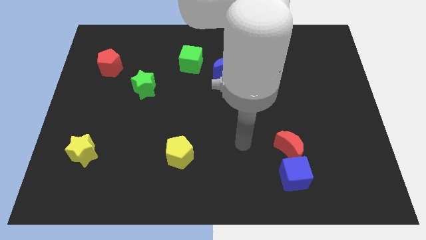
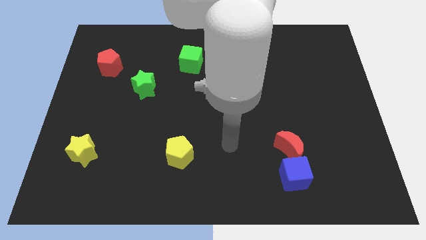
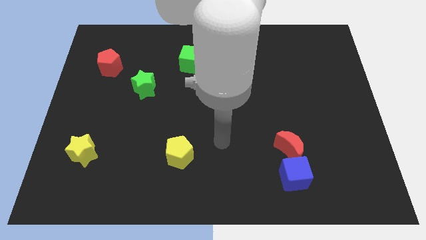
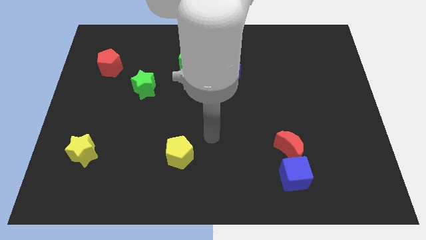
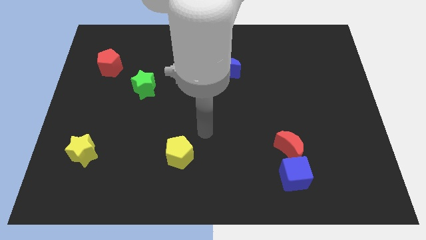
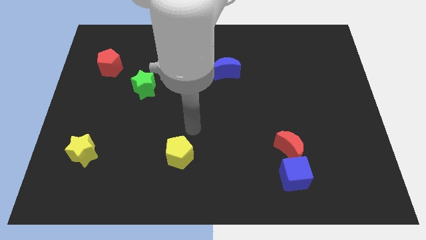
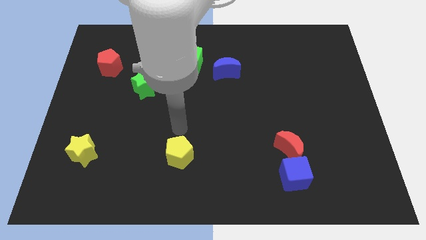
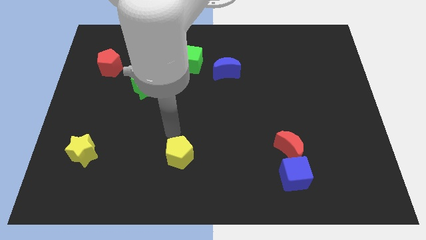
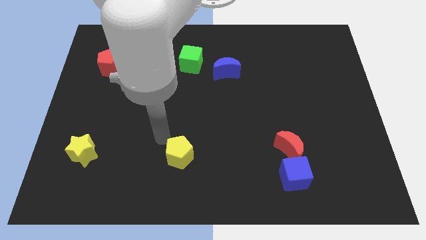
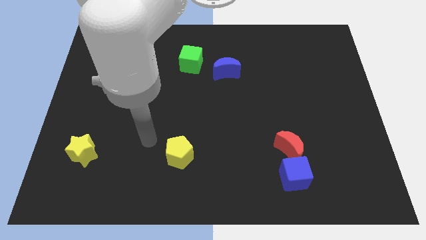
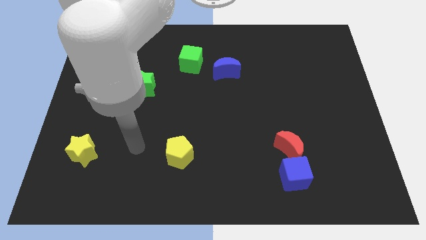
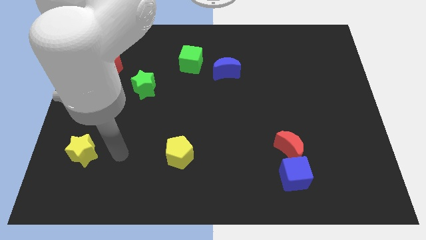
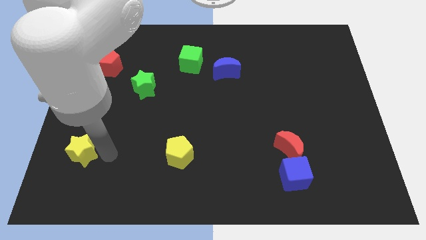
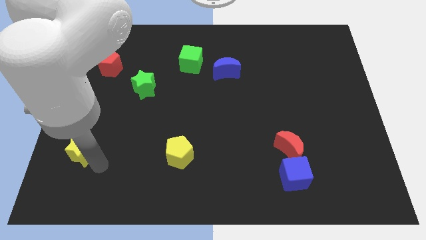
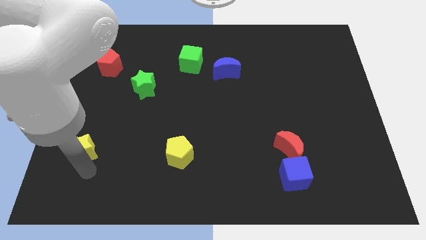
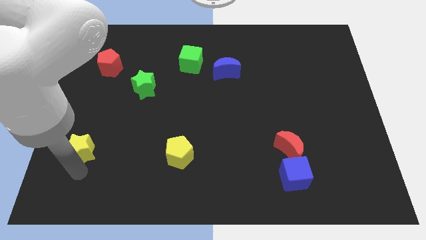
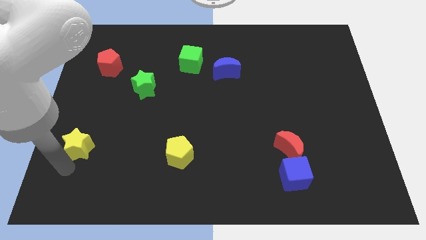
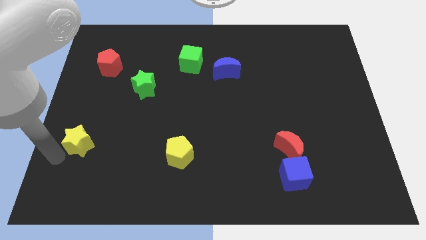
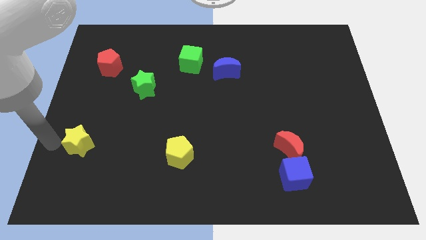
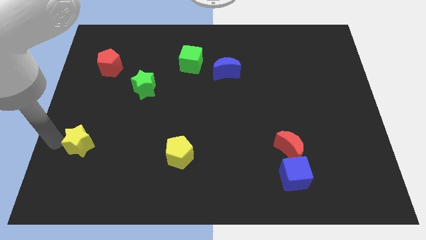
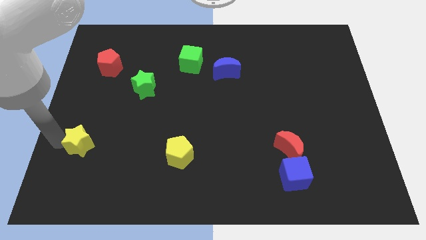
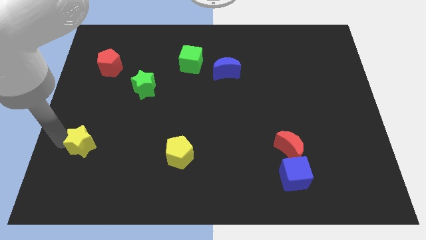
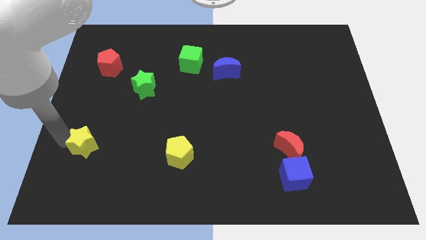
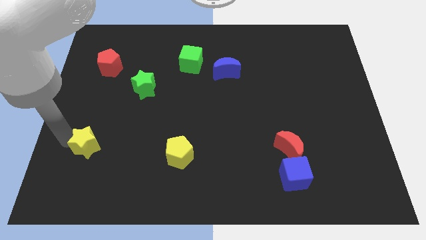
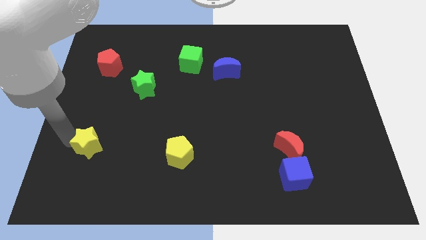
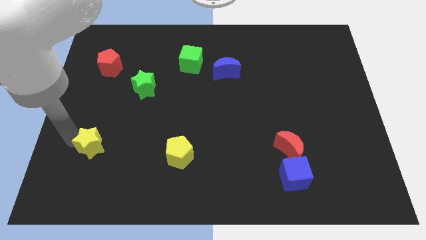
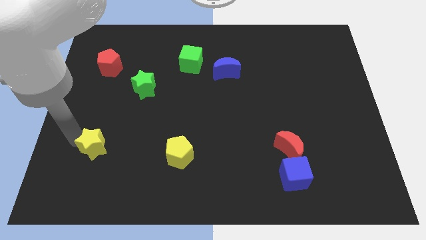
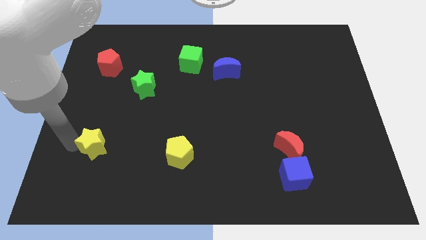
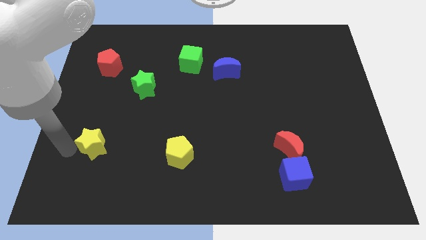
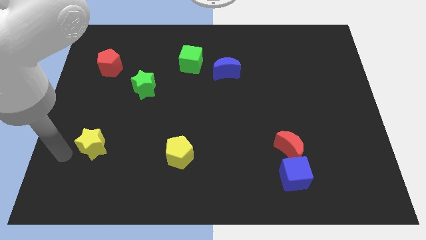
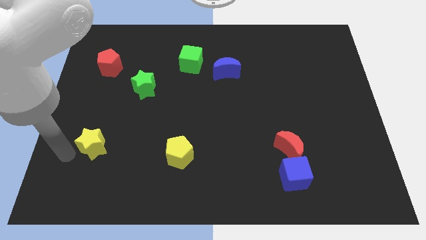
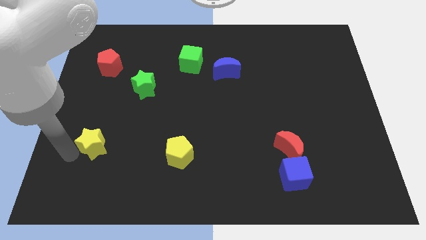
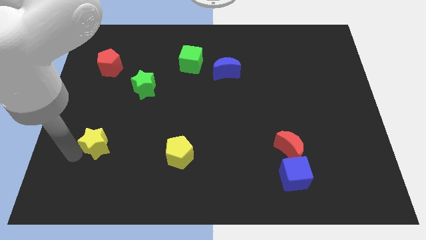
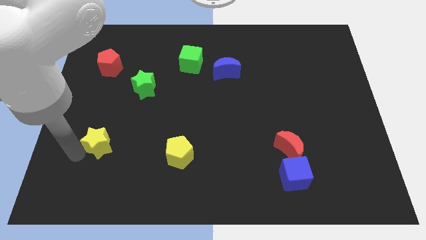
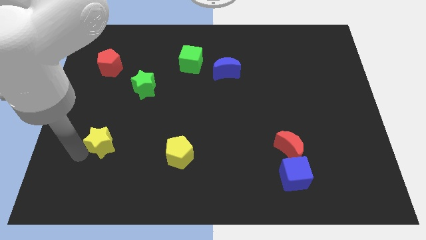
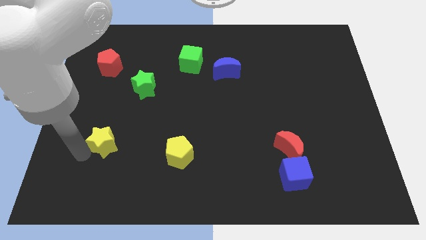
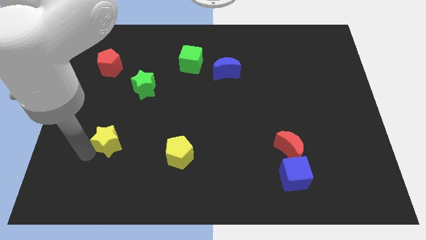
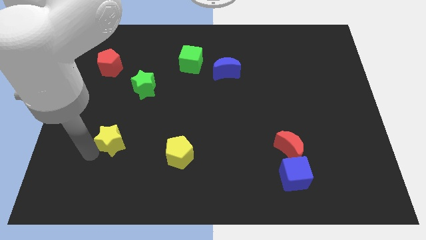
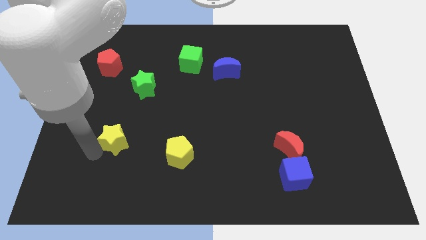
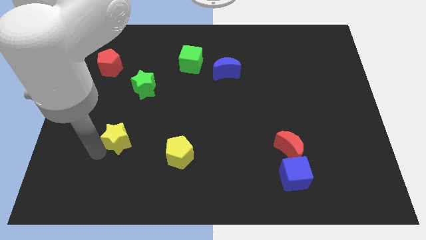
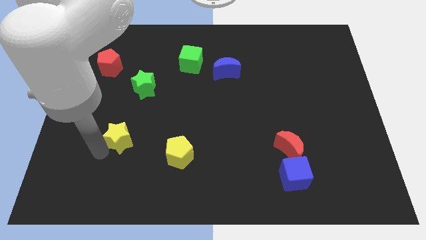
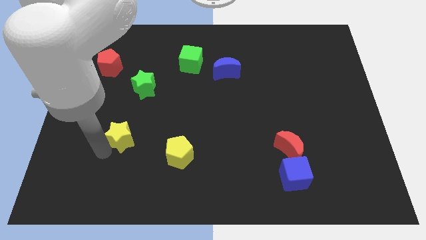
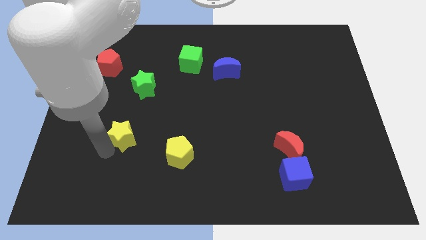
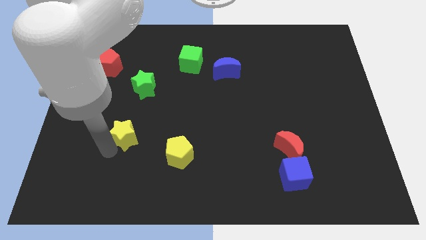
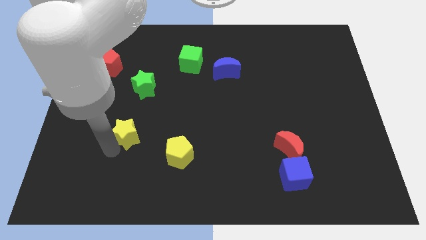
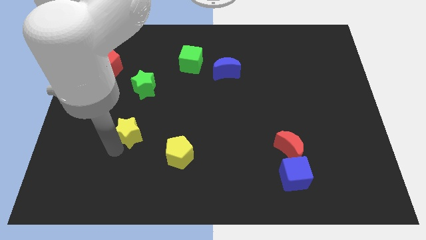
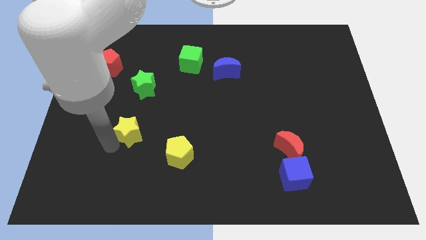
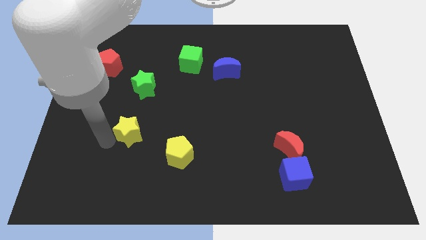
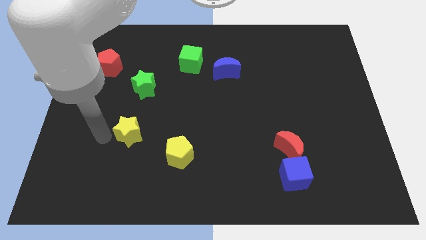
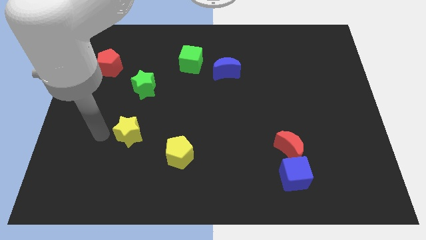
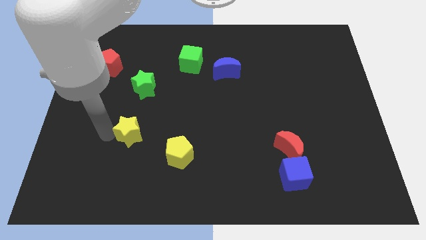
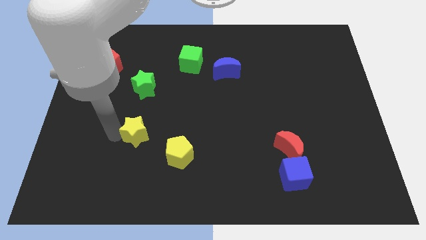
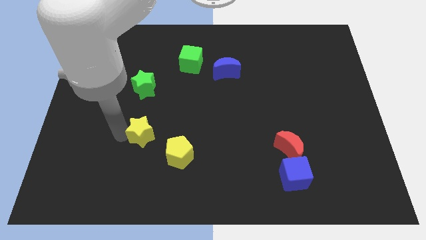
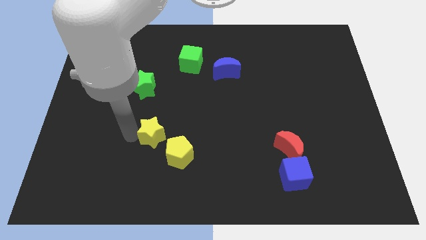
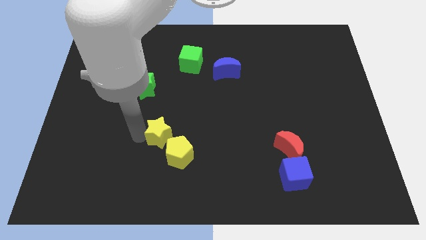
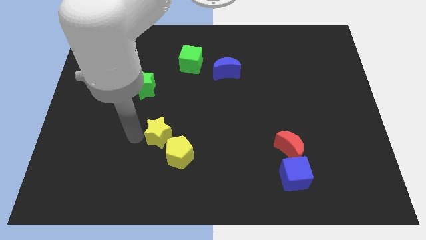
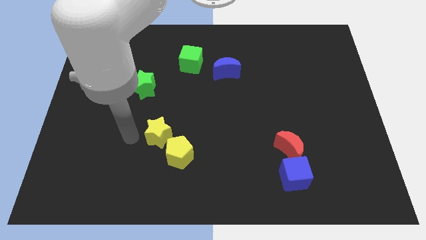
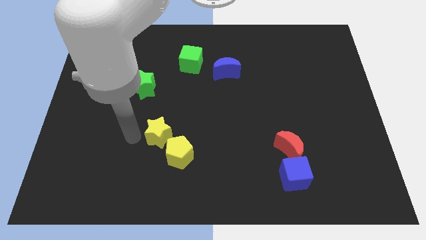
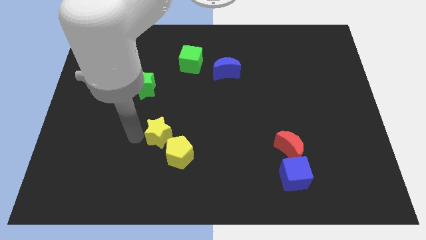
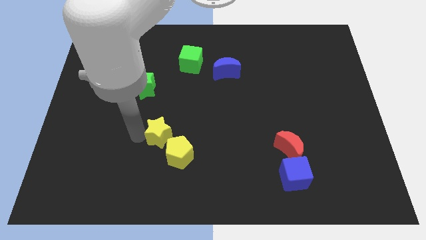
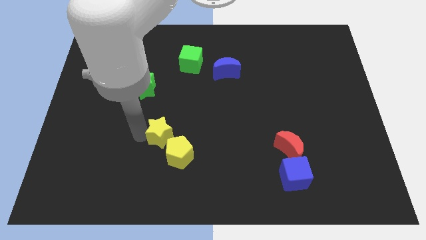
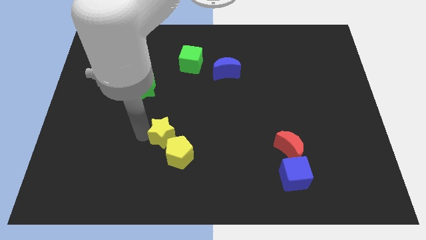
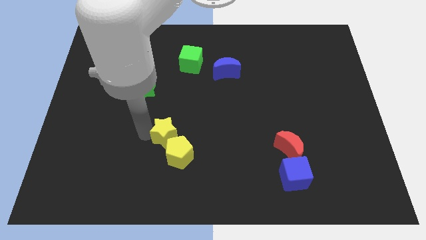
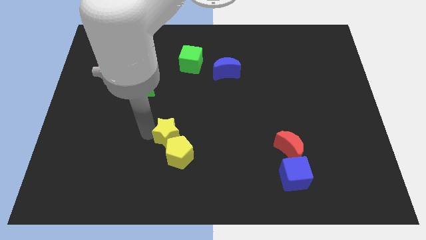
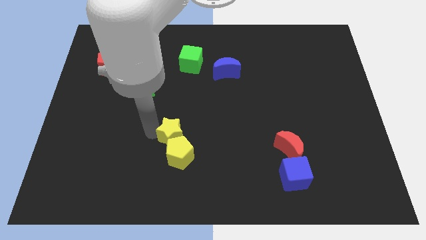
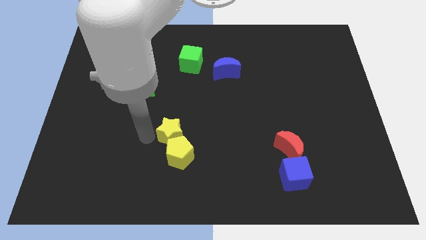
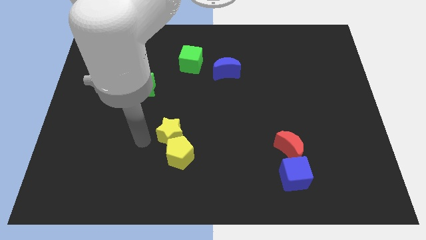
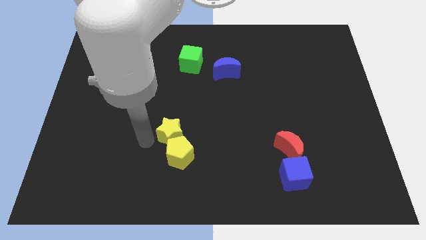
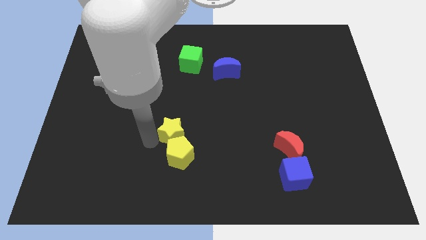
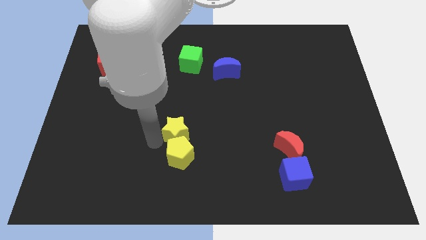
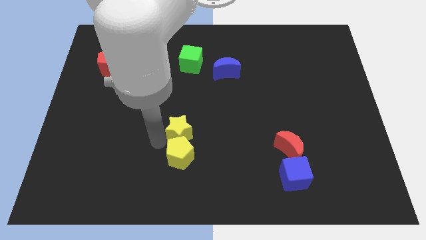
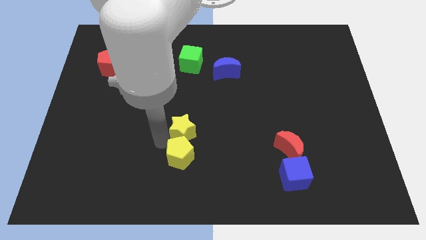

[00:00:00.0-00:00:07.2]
push the yellow star to the right

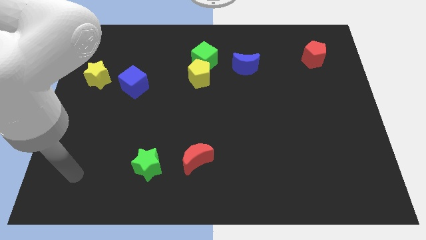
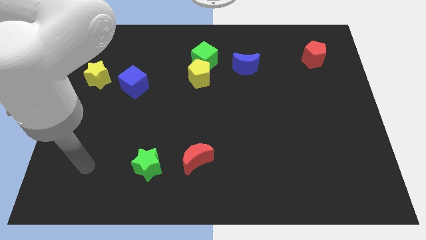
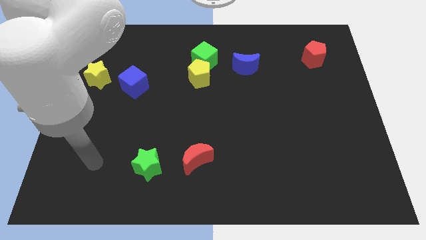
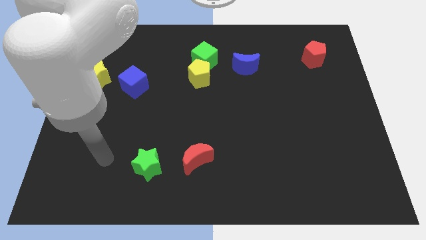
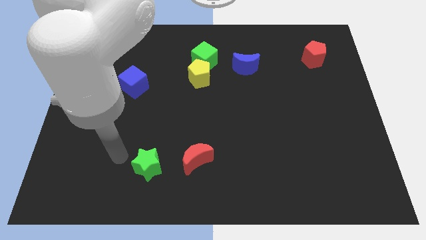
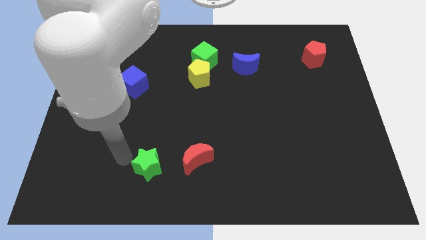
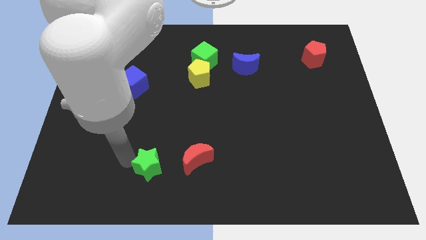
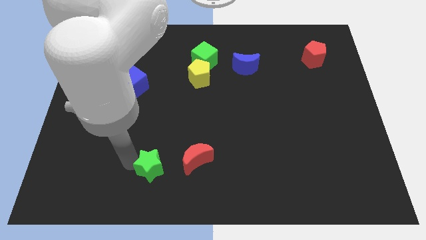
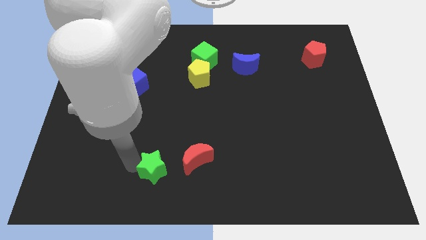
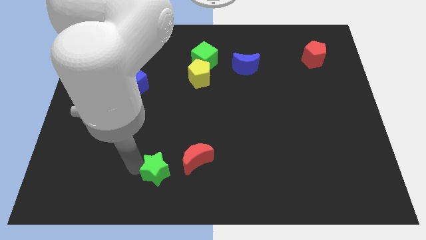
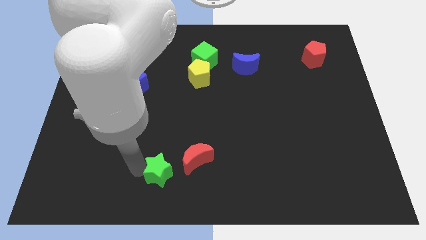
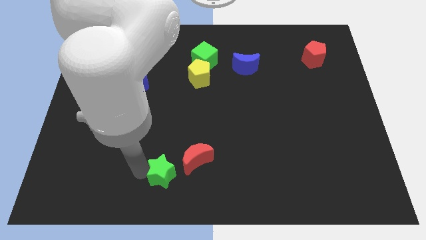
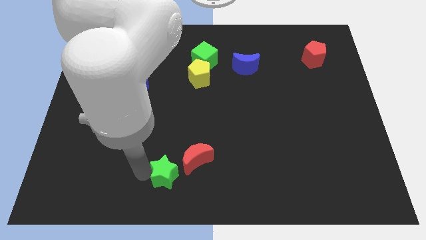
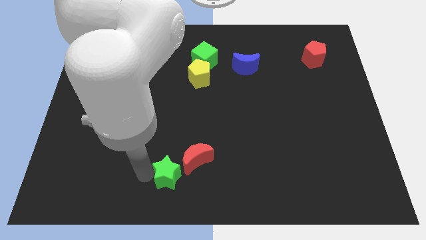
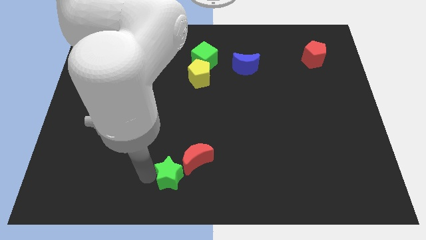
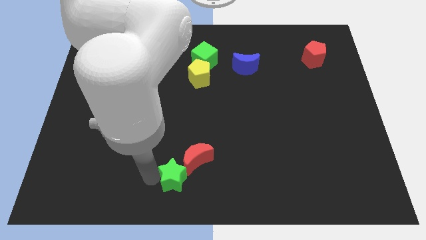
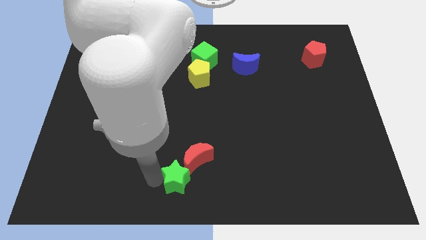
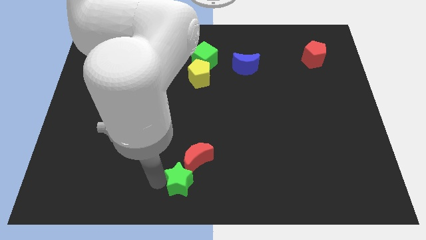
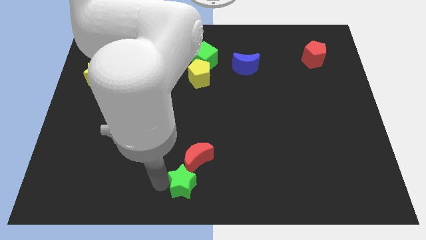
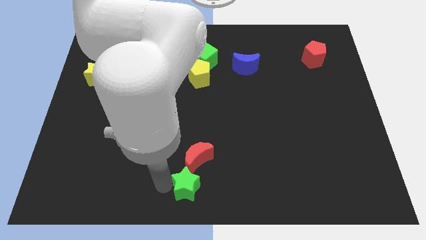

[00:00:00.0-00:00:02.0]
move the green star right a little
